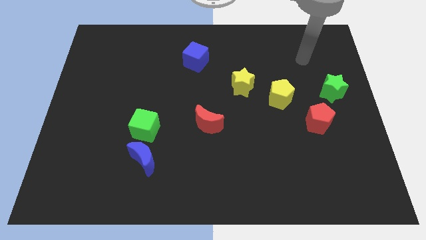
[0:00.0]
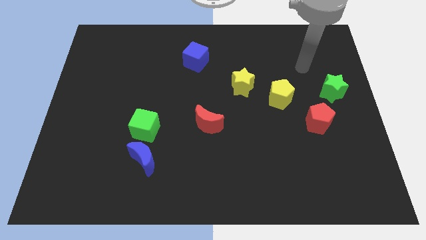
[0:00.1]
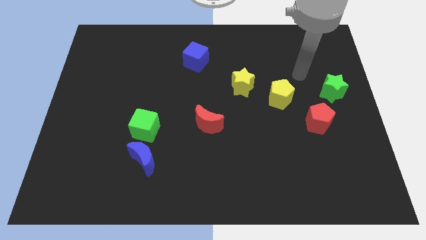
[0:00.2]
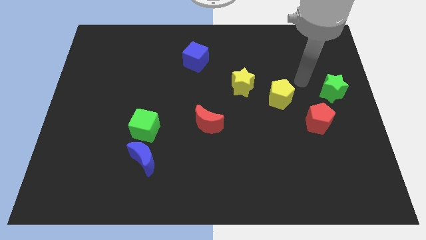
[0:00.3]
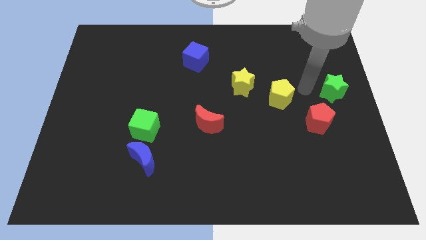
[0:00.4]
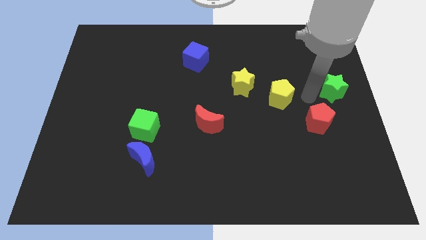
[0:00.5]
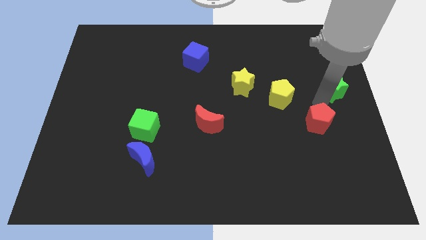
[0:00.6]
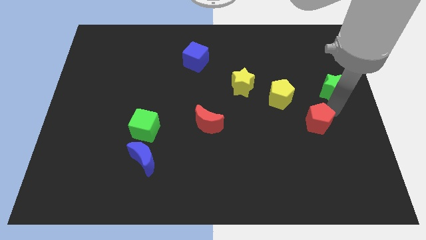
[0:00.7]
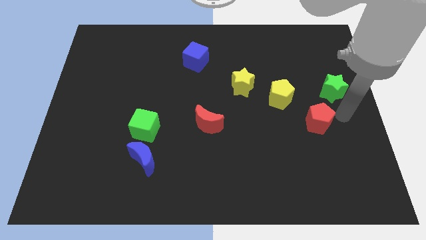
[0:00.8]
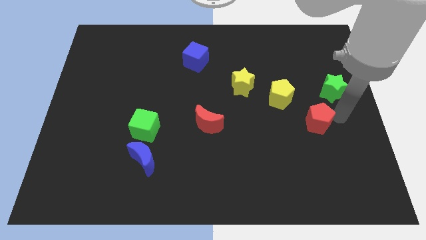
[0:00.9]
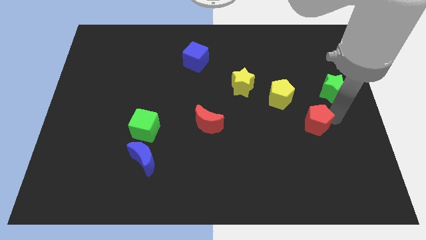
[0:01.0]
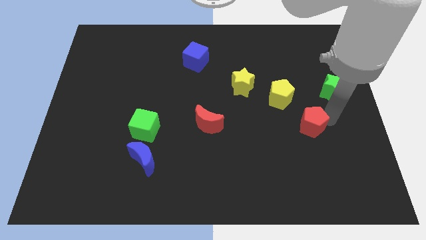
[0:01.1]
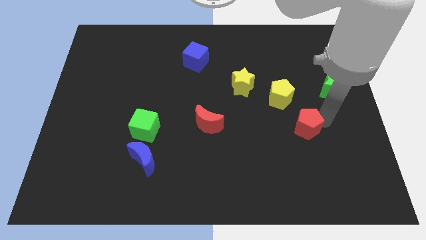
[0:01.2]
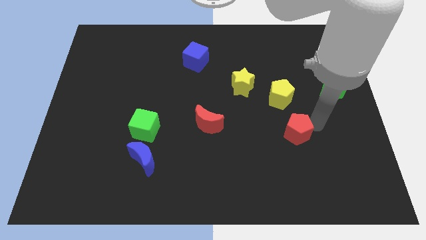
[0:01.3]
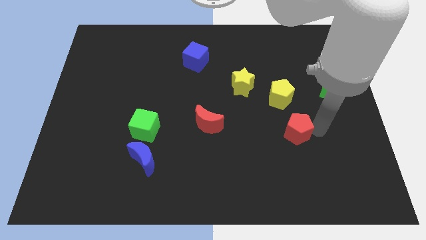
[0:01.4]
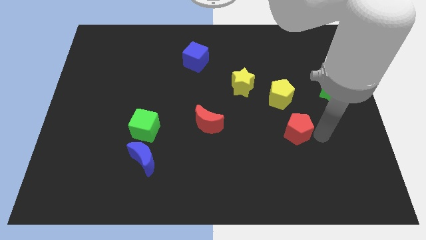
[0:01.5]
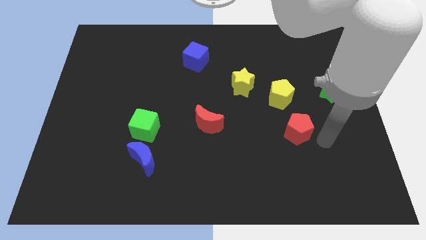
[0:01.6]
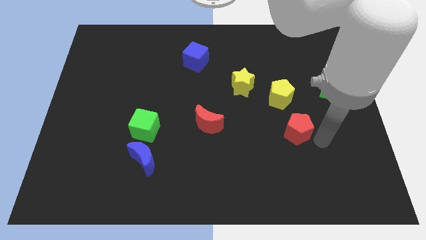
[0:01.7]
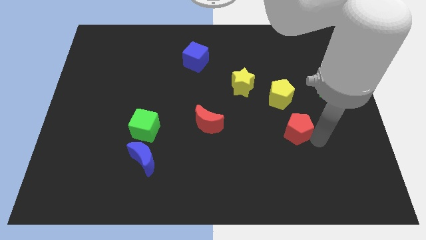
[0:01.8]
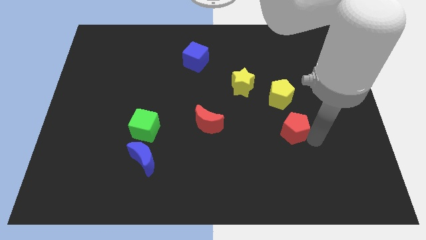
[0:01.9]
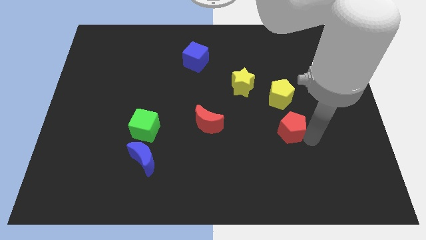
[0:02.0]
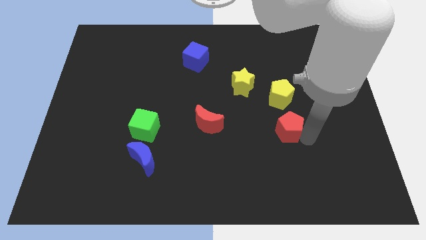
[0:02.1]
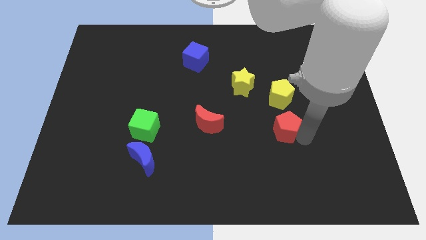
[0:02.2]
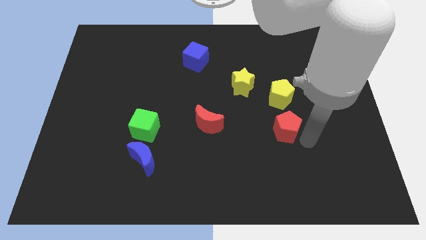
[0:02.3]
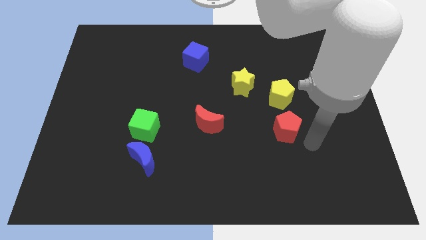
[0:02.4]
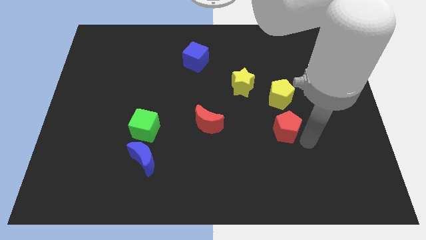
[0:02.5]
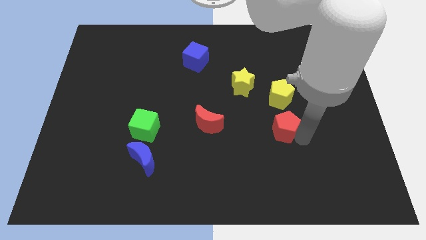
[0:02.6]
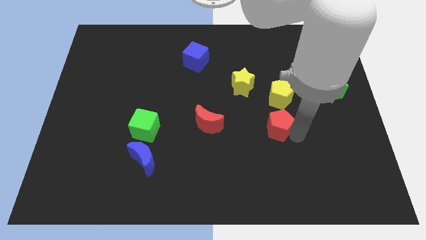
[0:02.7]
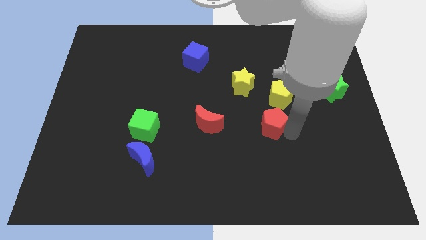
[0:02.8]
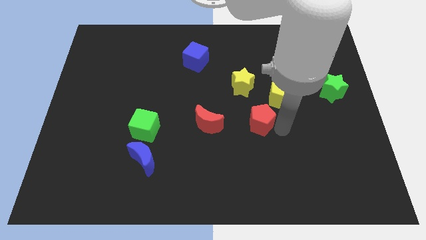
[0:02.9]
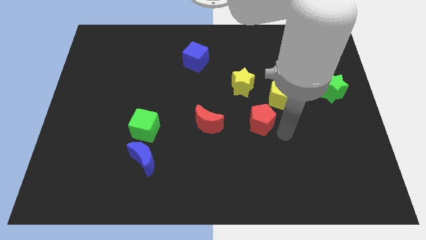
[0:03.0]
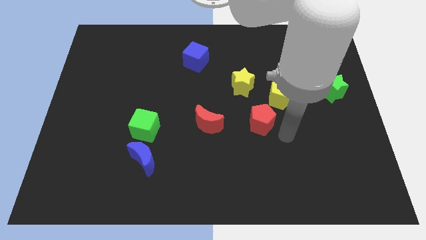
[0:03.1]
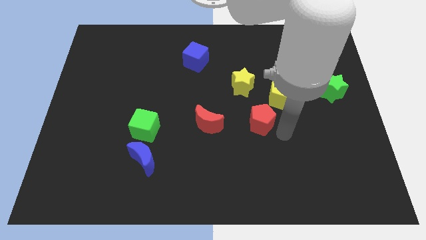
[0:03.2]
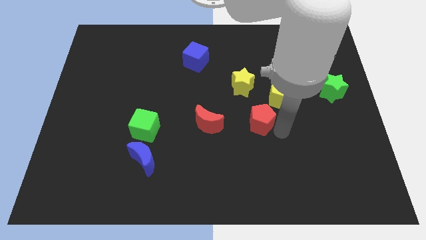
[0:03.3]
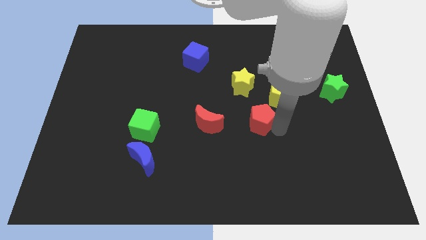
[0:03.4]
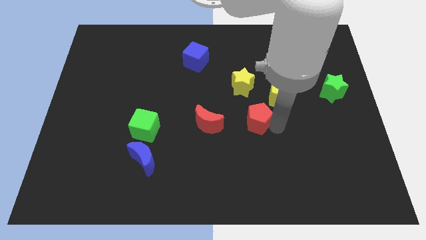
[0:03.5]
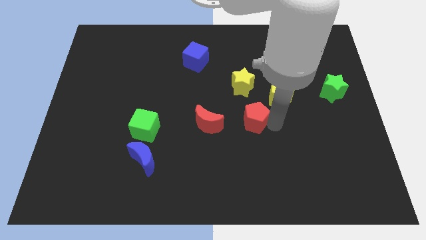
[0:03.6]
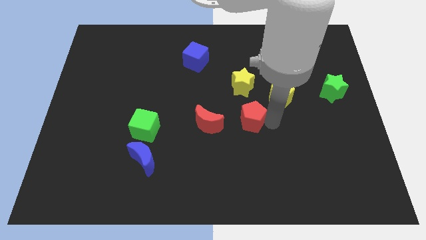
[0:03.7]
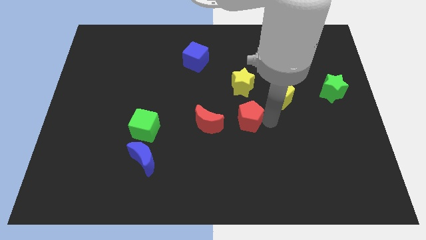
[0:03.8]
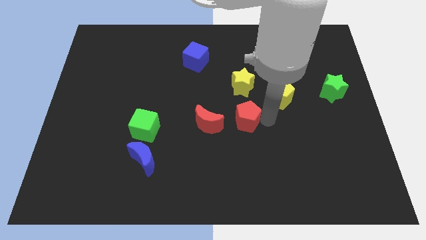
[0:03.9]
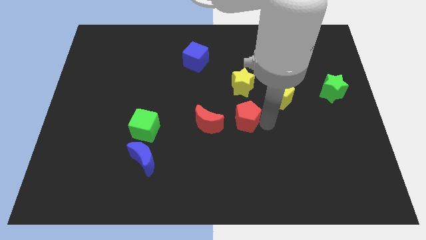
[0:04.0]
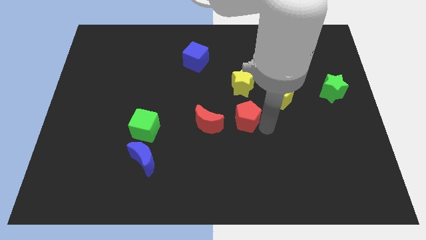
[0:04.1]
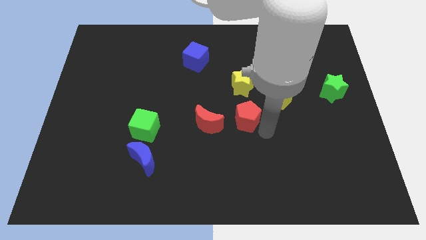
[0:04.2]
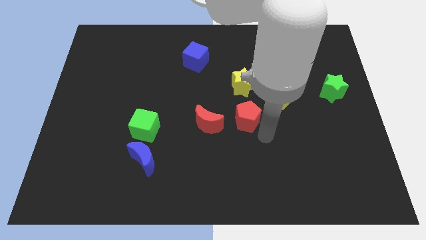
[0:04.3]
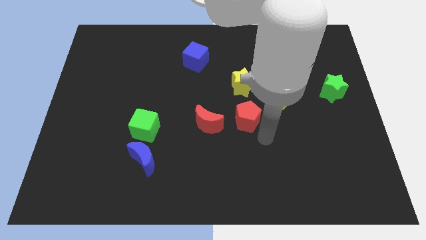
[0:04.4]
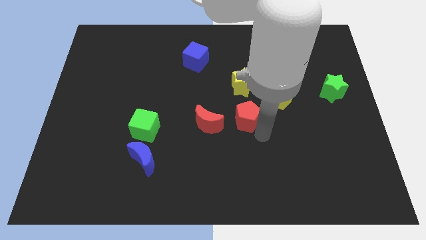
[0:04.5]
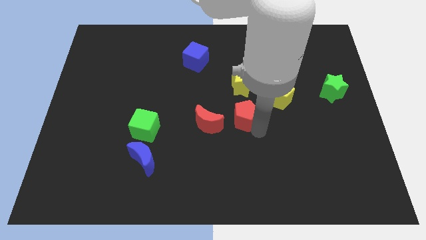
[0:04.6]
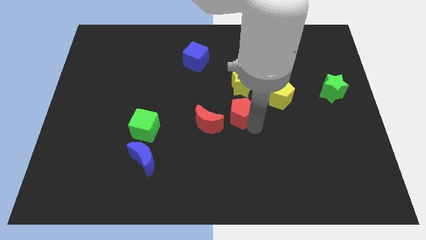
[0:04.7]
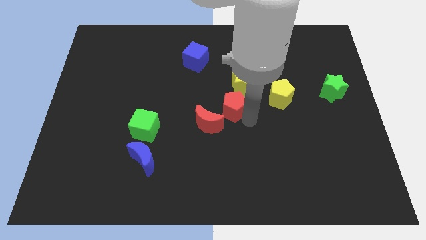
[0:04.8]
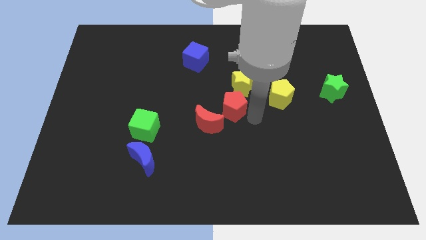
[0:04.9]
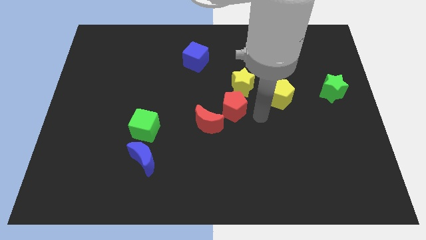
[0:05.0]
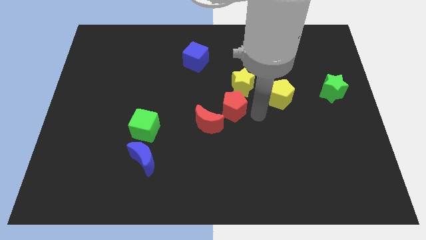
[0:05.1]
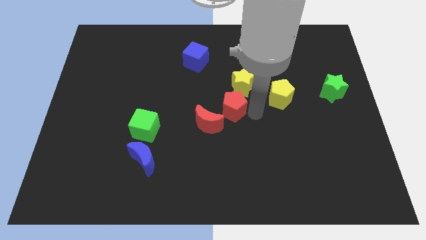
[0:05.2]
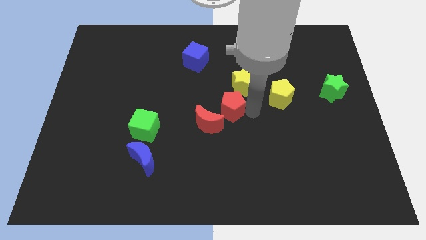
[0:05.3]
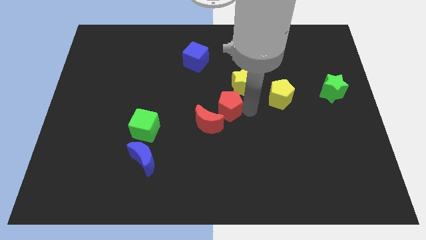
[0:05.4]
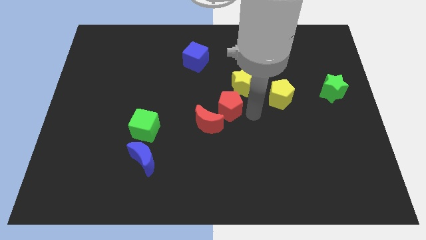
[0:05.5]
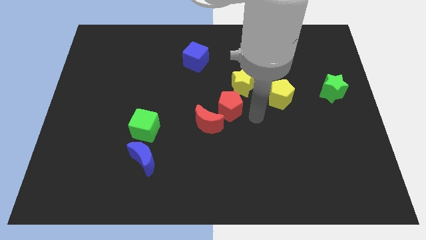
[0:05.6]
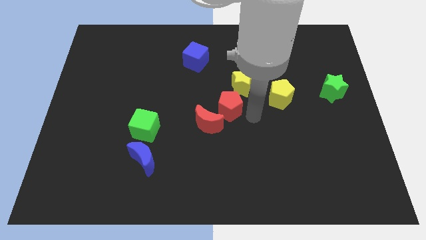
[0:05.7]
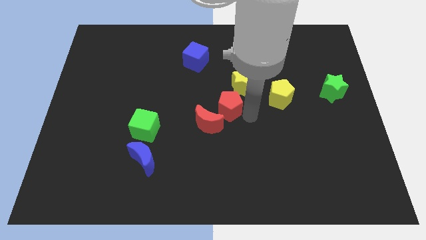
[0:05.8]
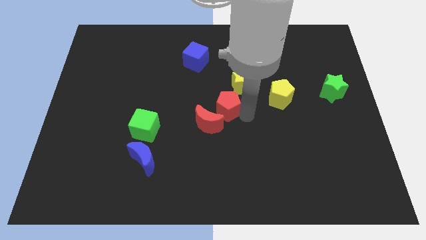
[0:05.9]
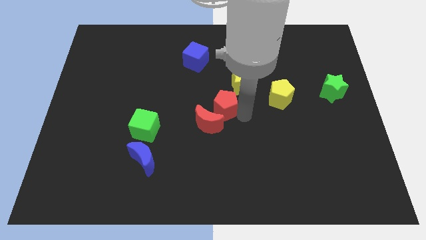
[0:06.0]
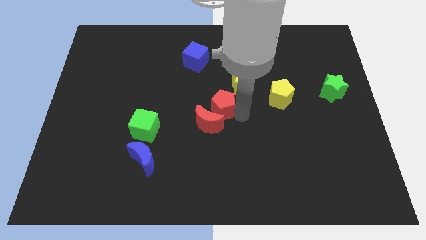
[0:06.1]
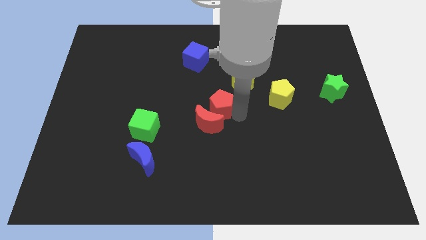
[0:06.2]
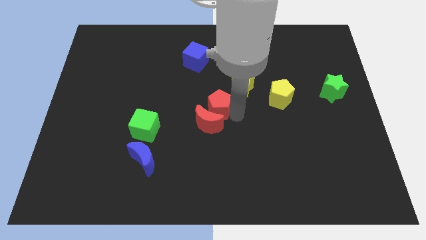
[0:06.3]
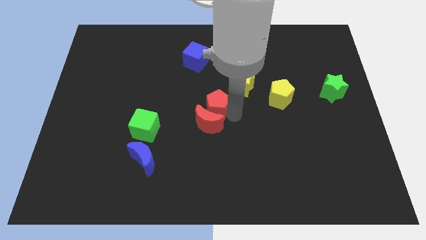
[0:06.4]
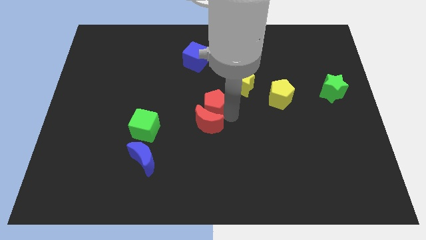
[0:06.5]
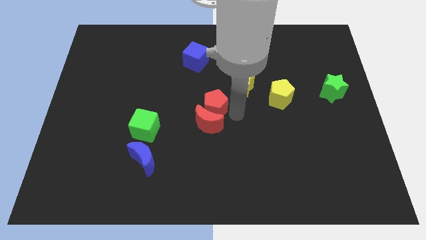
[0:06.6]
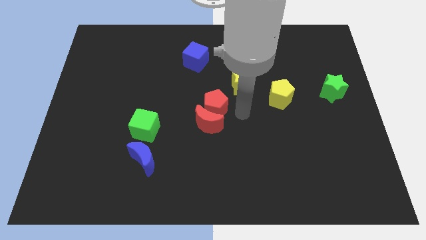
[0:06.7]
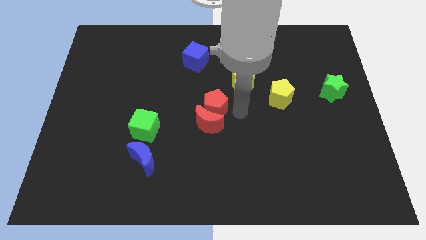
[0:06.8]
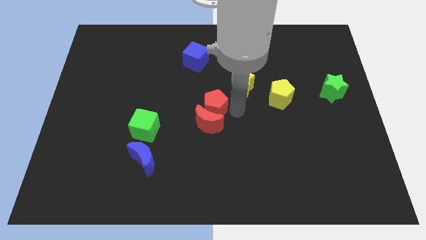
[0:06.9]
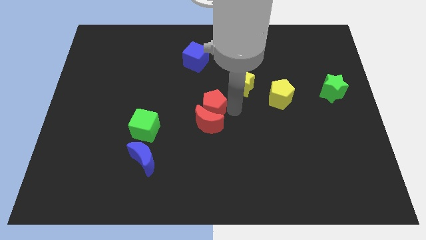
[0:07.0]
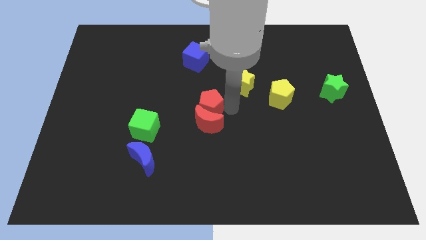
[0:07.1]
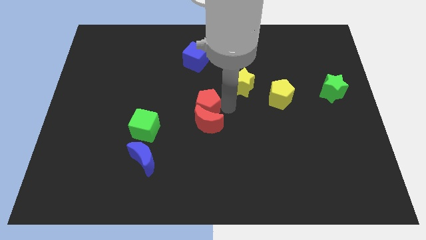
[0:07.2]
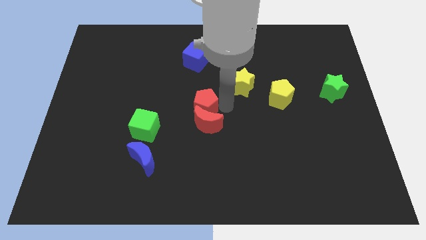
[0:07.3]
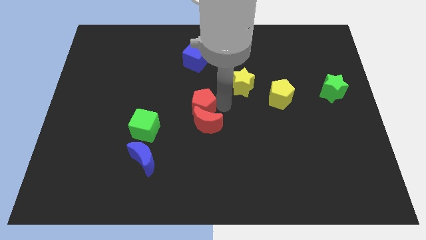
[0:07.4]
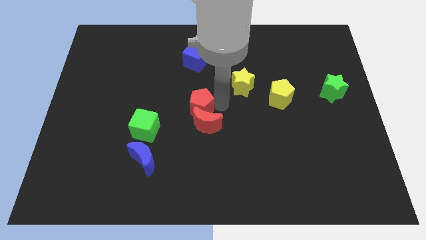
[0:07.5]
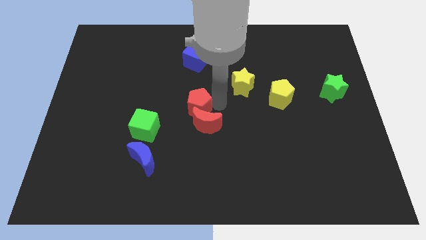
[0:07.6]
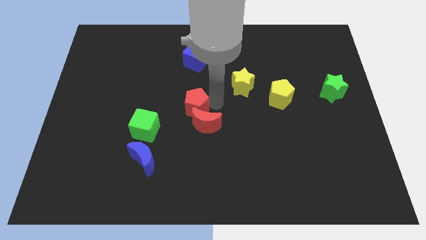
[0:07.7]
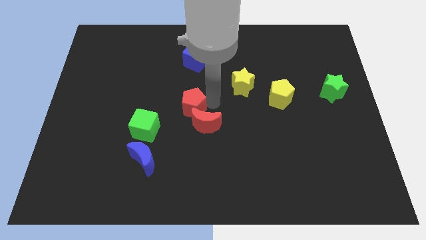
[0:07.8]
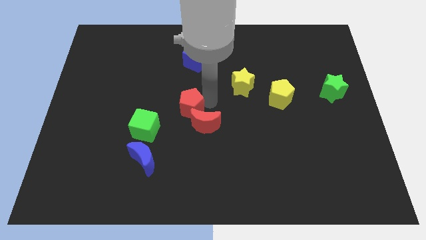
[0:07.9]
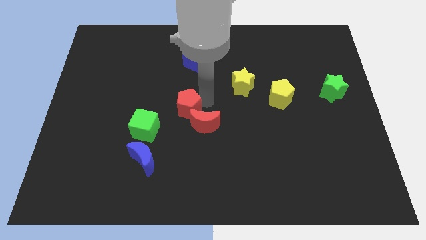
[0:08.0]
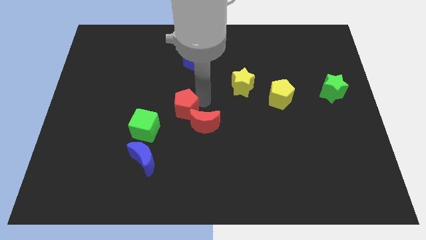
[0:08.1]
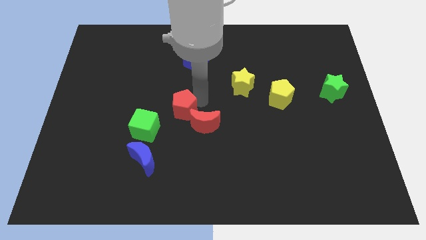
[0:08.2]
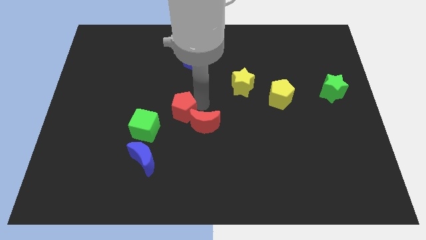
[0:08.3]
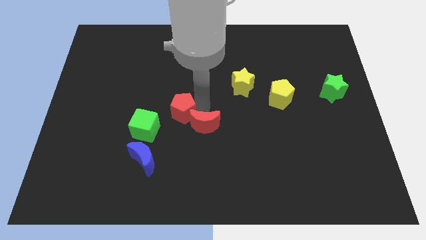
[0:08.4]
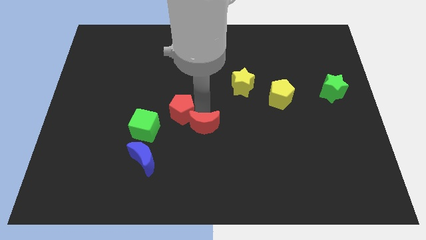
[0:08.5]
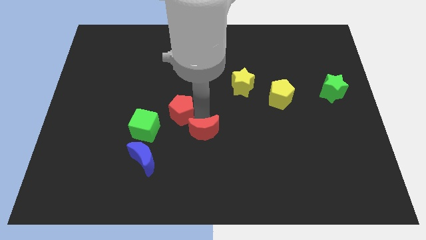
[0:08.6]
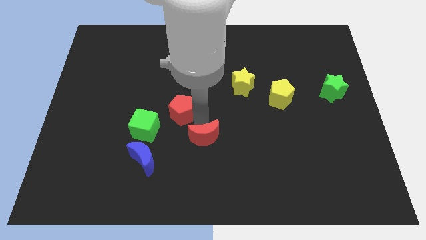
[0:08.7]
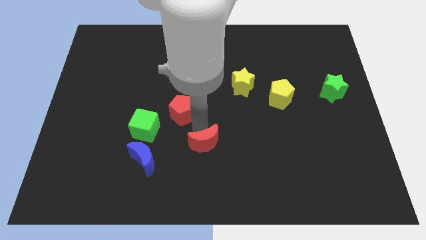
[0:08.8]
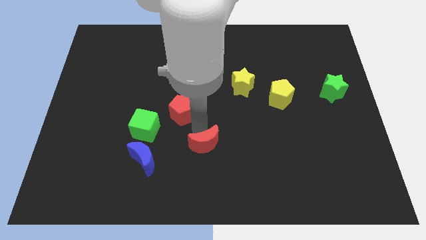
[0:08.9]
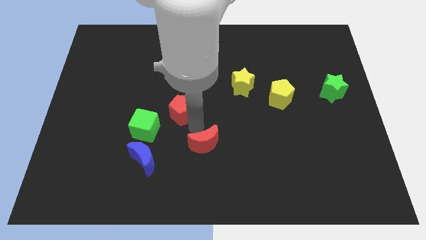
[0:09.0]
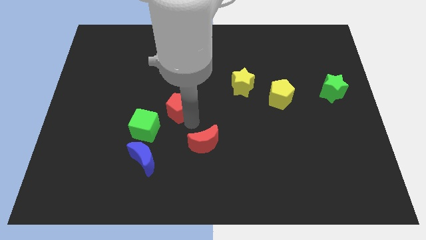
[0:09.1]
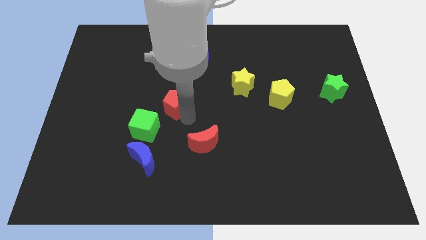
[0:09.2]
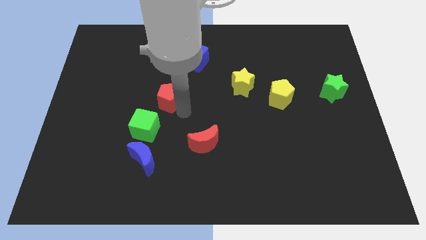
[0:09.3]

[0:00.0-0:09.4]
move the red pentagon to the top side of the green cube
